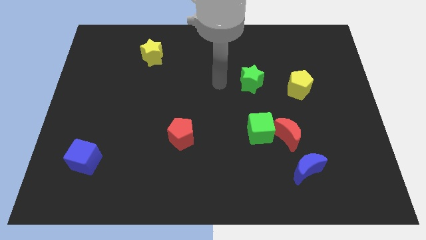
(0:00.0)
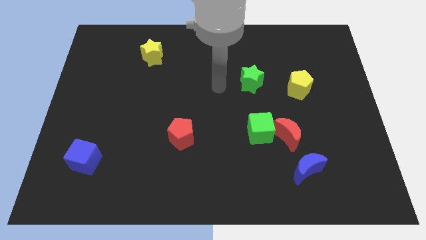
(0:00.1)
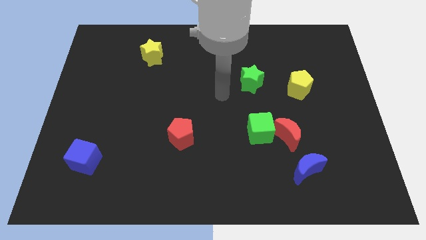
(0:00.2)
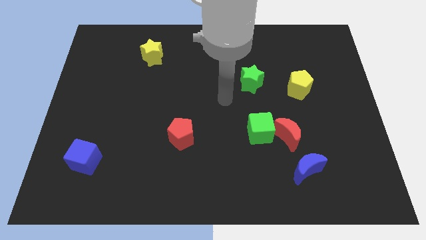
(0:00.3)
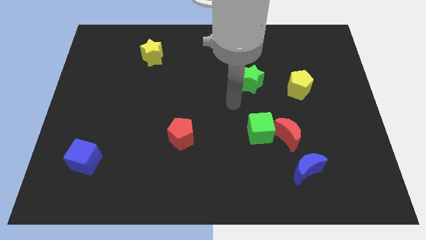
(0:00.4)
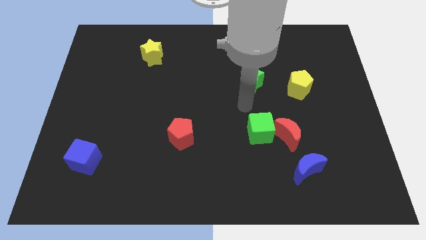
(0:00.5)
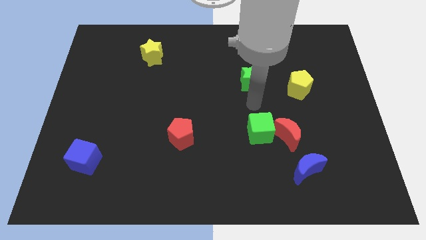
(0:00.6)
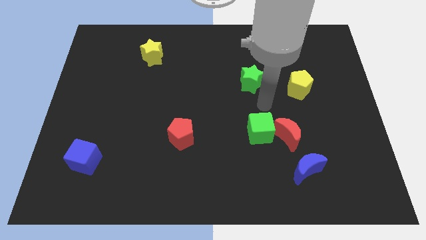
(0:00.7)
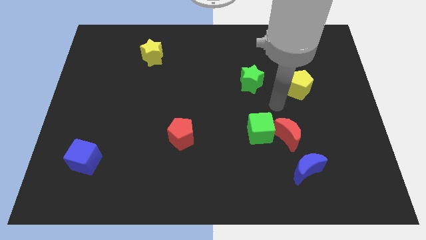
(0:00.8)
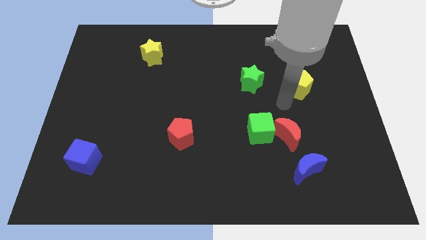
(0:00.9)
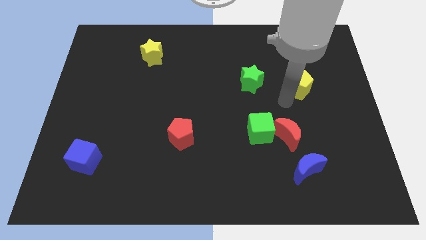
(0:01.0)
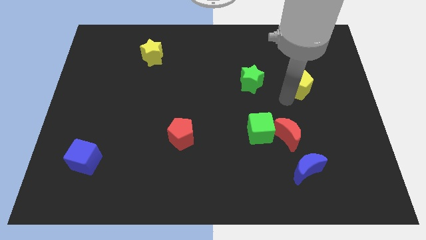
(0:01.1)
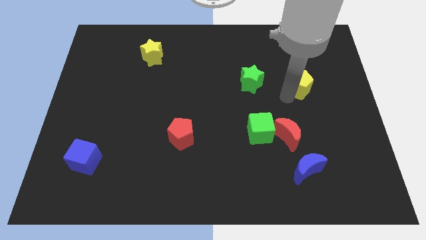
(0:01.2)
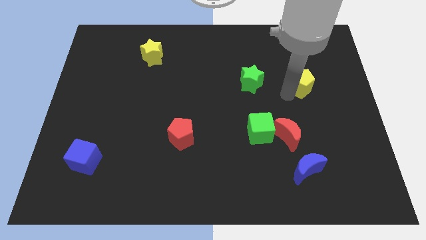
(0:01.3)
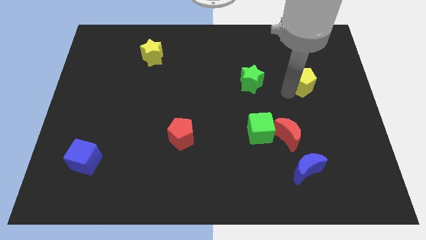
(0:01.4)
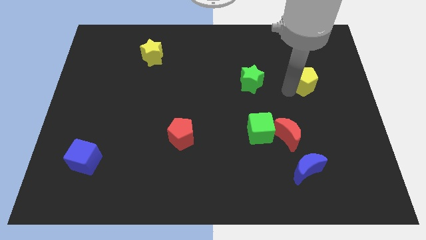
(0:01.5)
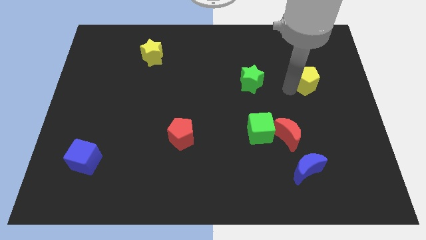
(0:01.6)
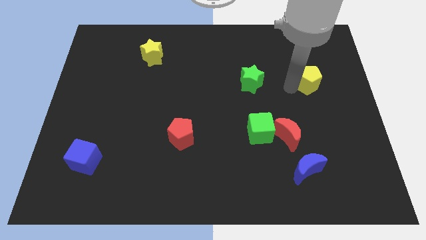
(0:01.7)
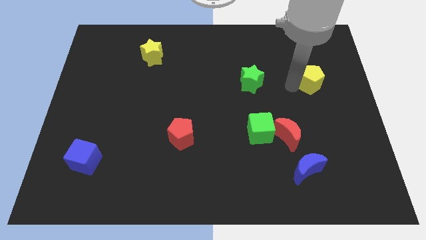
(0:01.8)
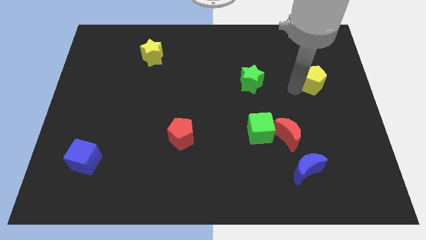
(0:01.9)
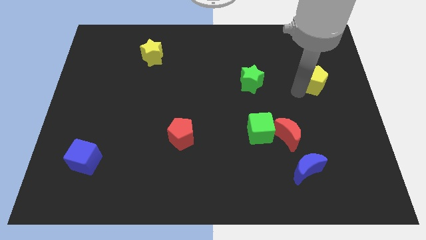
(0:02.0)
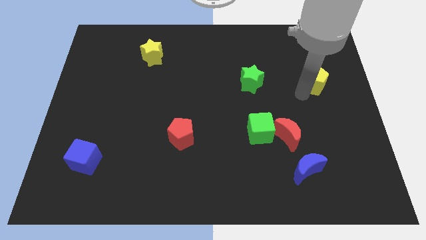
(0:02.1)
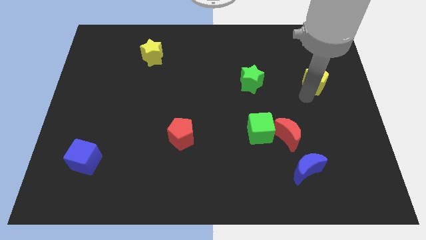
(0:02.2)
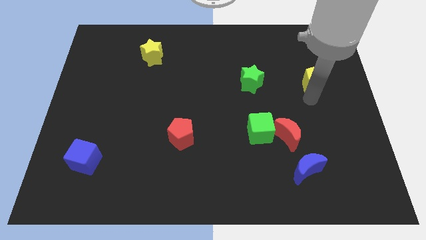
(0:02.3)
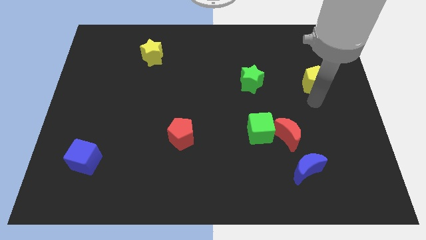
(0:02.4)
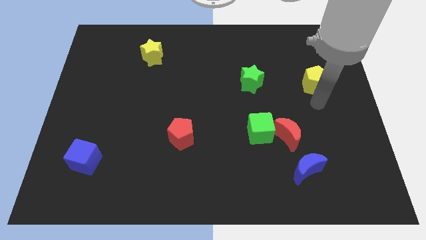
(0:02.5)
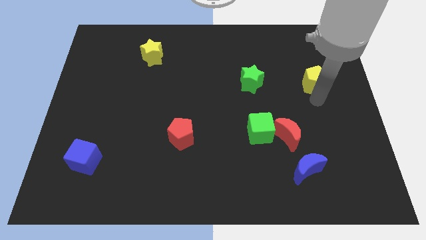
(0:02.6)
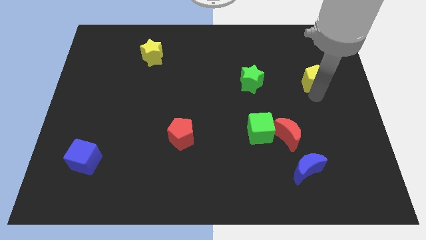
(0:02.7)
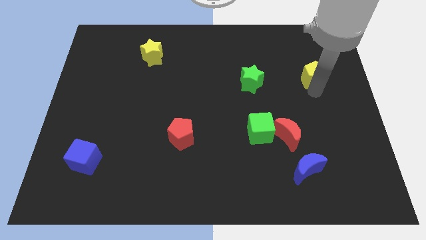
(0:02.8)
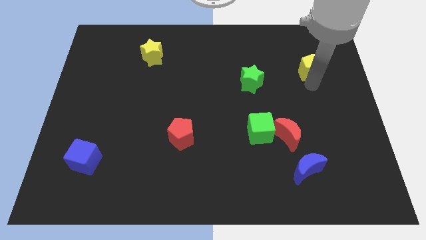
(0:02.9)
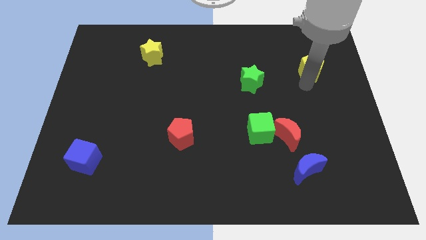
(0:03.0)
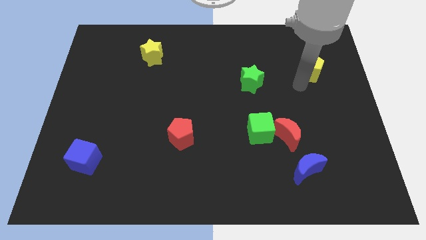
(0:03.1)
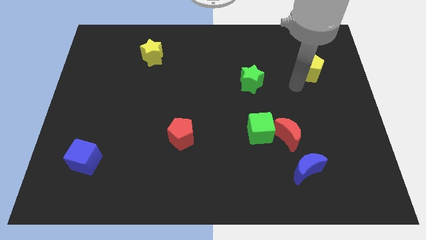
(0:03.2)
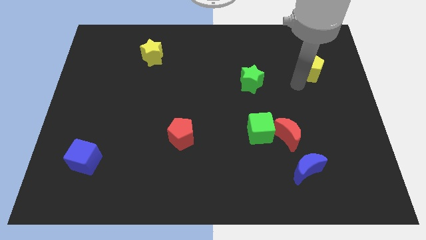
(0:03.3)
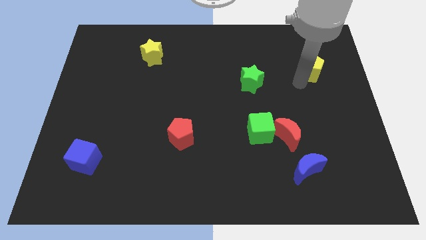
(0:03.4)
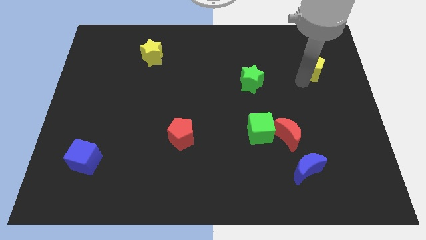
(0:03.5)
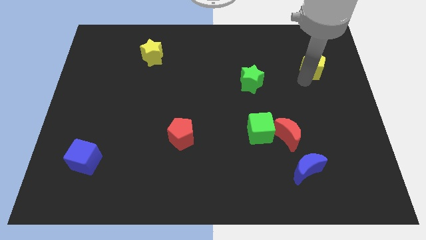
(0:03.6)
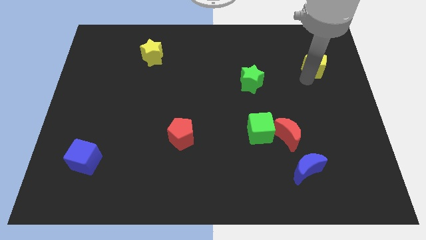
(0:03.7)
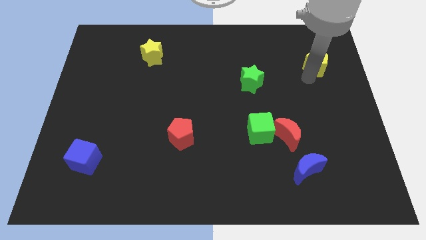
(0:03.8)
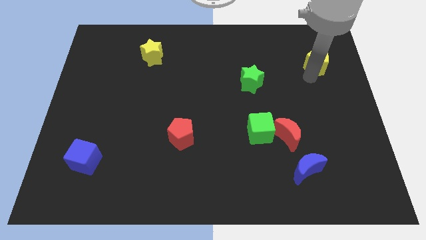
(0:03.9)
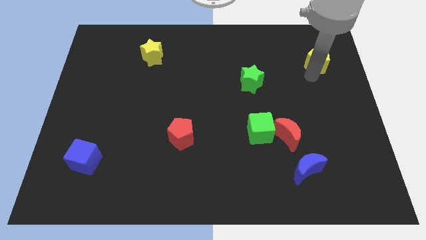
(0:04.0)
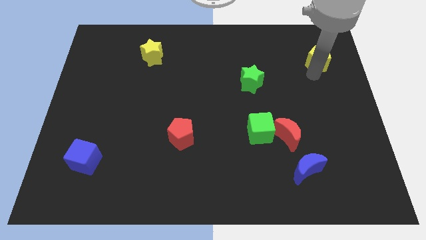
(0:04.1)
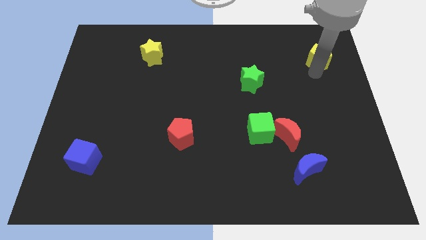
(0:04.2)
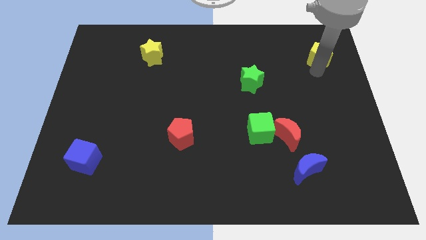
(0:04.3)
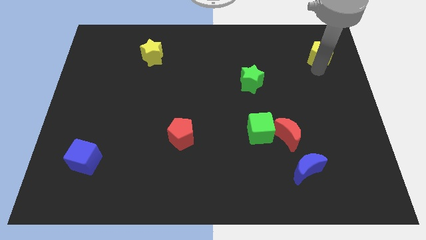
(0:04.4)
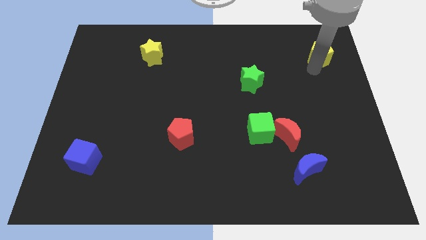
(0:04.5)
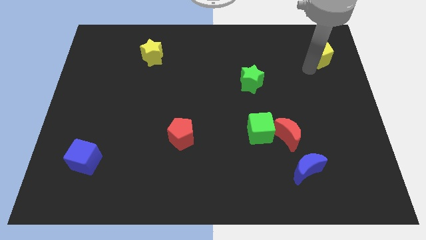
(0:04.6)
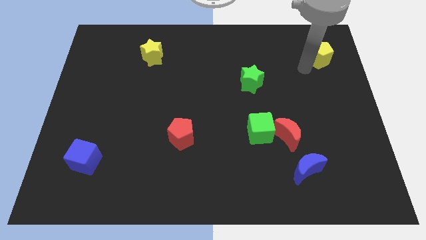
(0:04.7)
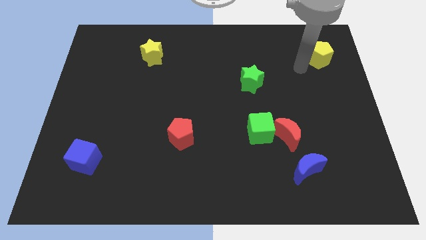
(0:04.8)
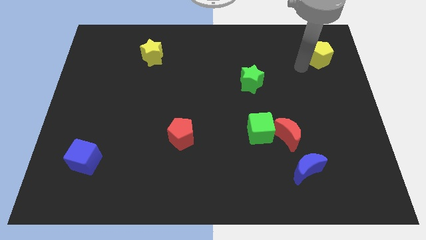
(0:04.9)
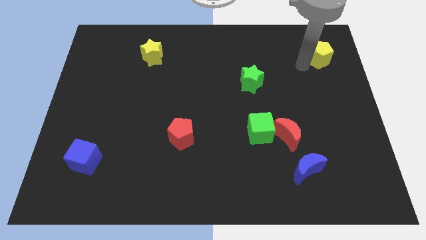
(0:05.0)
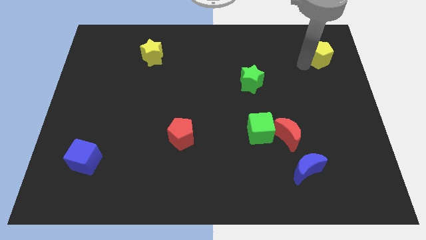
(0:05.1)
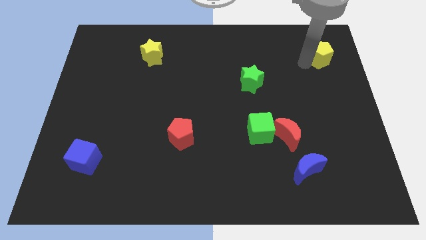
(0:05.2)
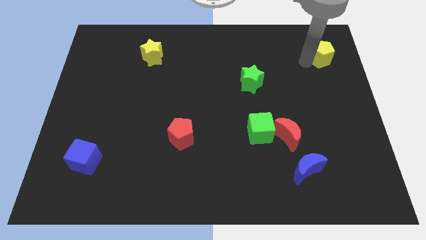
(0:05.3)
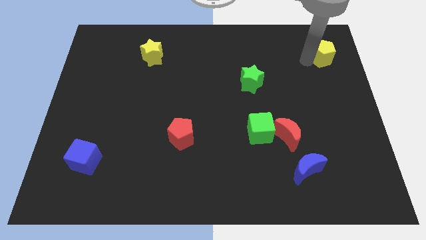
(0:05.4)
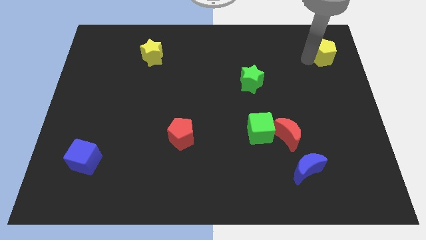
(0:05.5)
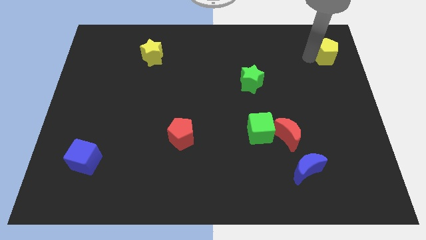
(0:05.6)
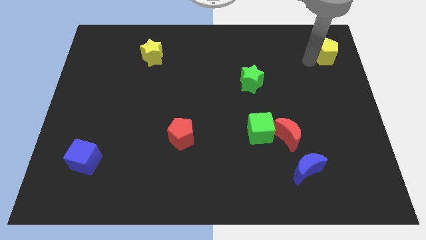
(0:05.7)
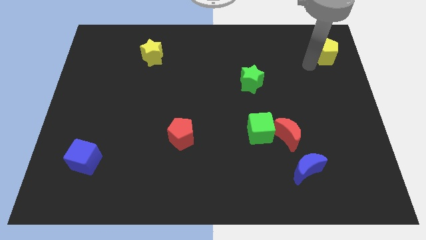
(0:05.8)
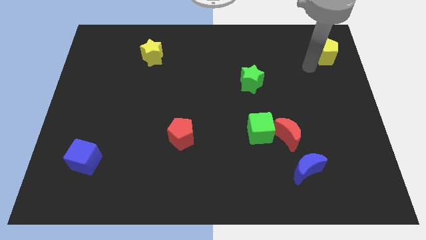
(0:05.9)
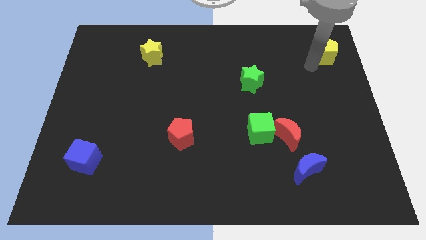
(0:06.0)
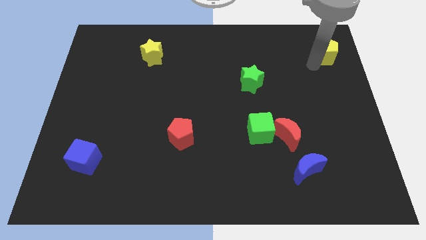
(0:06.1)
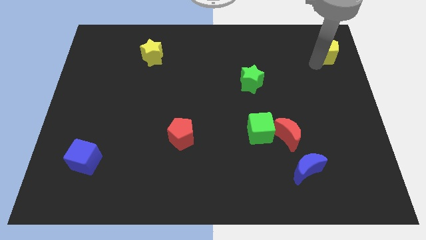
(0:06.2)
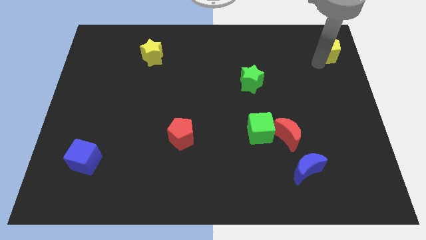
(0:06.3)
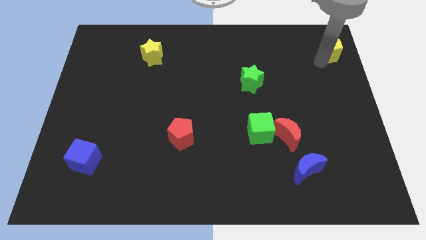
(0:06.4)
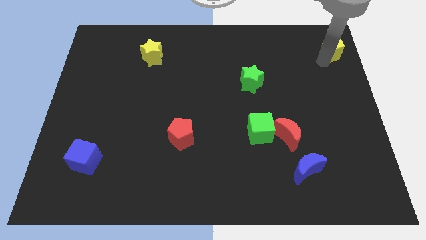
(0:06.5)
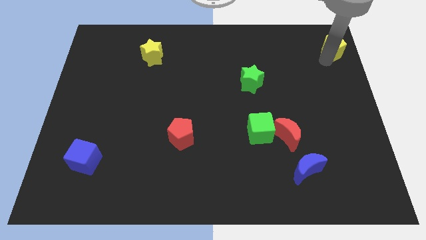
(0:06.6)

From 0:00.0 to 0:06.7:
put the yellow pentagon to the upper right corner
